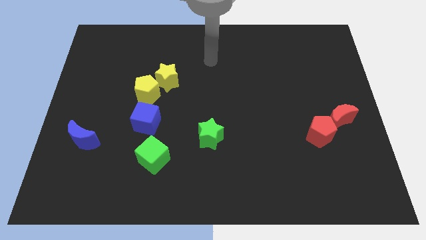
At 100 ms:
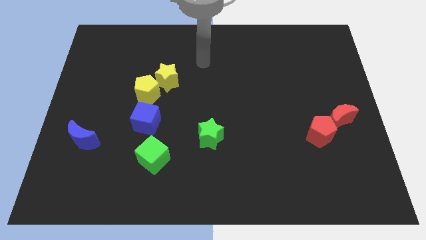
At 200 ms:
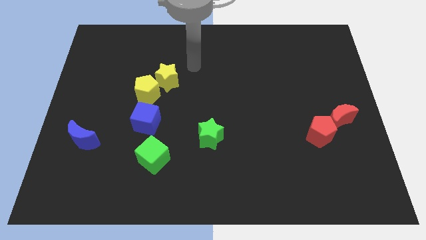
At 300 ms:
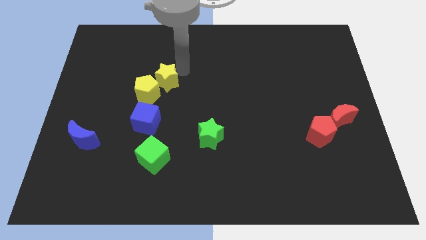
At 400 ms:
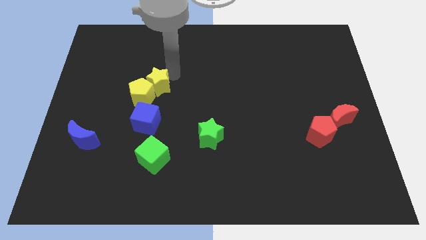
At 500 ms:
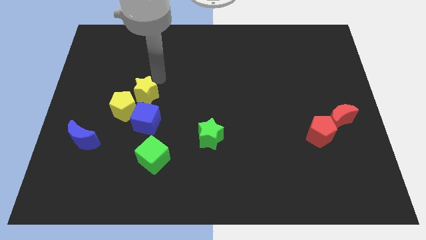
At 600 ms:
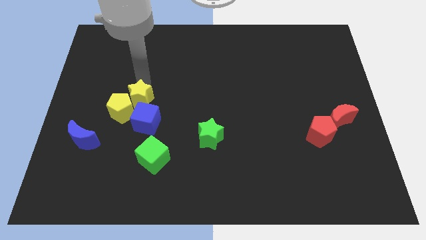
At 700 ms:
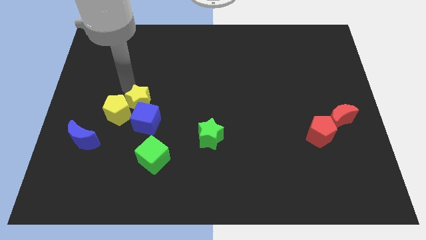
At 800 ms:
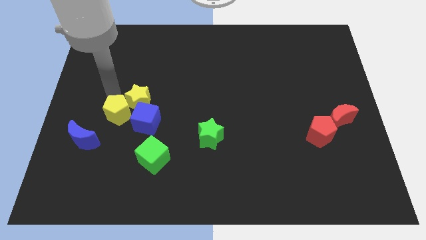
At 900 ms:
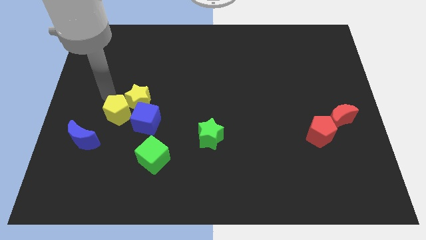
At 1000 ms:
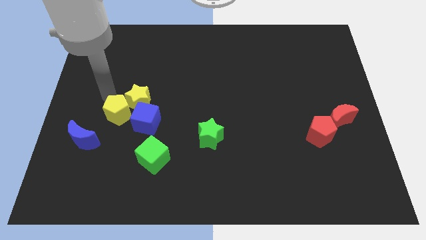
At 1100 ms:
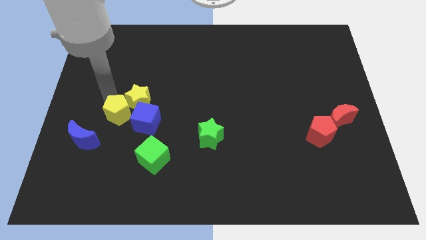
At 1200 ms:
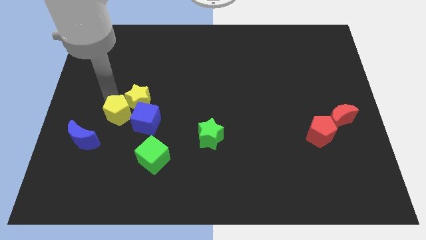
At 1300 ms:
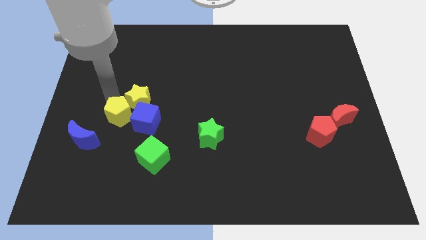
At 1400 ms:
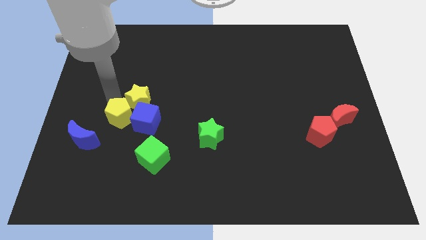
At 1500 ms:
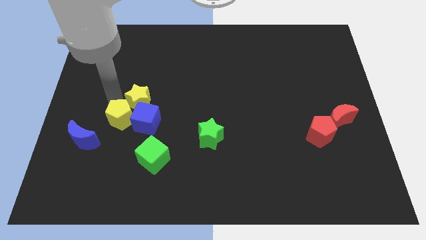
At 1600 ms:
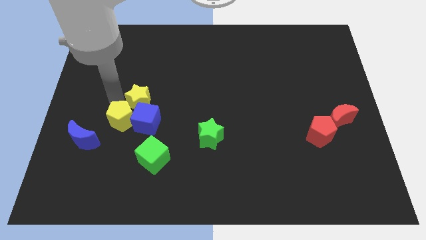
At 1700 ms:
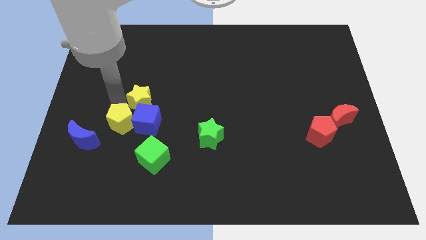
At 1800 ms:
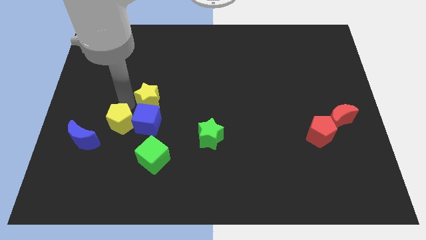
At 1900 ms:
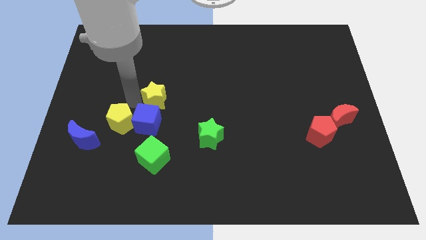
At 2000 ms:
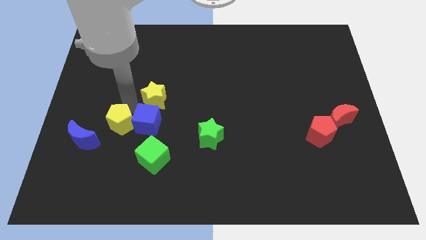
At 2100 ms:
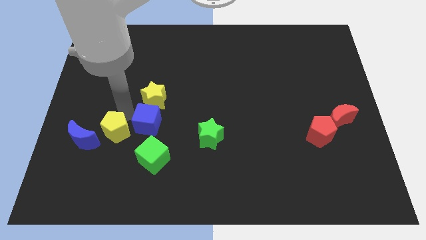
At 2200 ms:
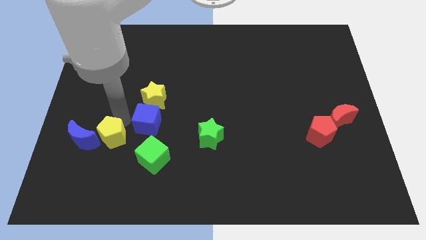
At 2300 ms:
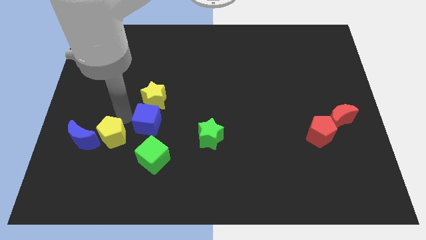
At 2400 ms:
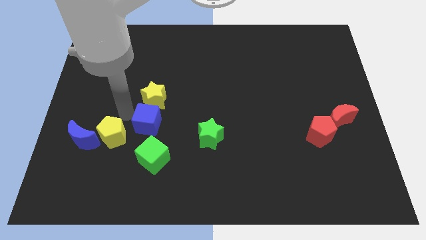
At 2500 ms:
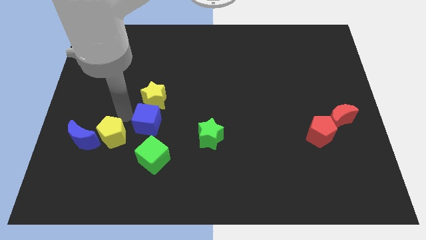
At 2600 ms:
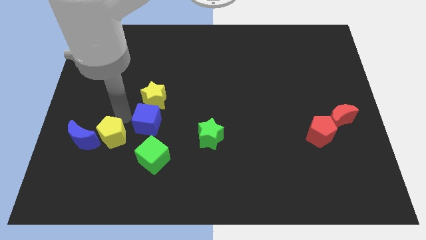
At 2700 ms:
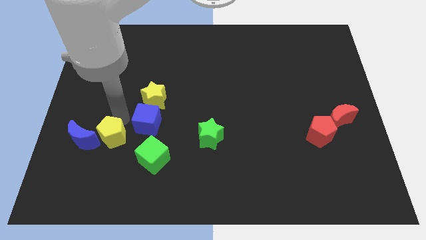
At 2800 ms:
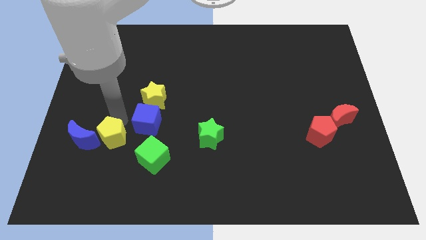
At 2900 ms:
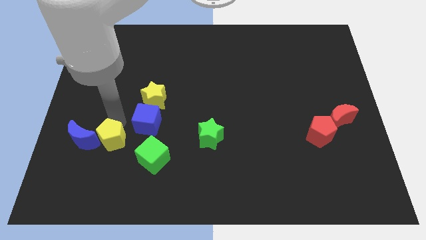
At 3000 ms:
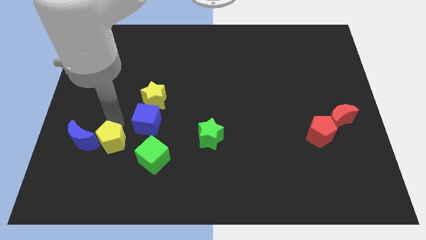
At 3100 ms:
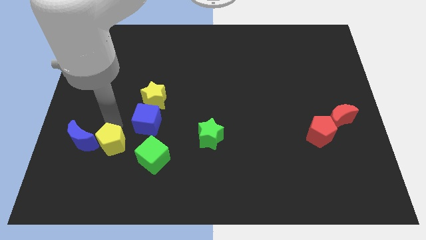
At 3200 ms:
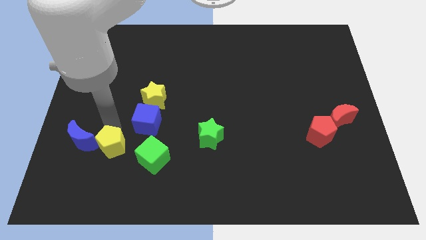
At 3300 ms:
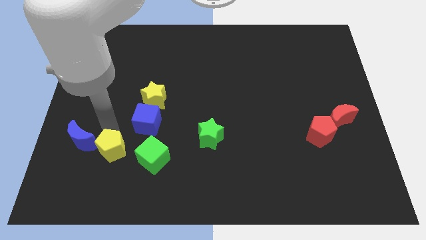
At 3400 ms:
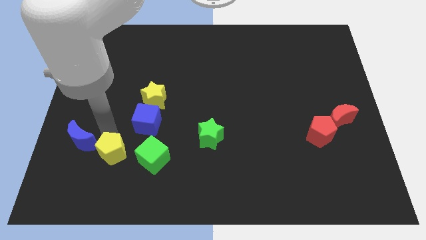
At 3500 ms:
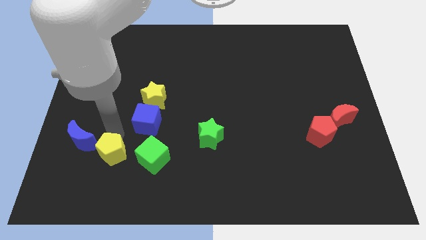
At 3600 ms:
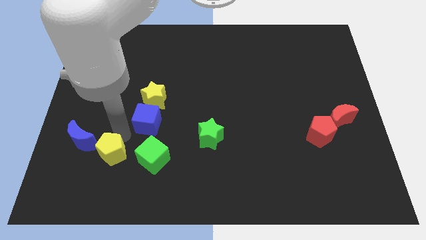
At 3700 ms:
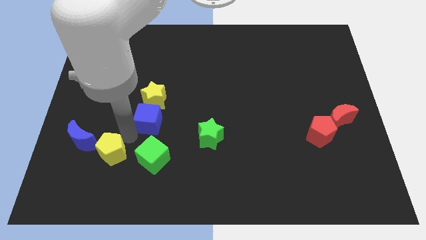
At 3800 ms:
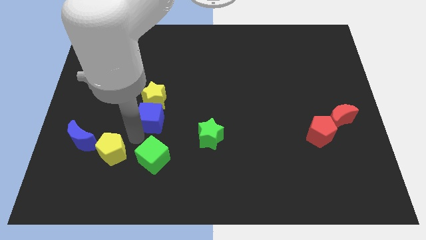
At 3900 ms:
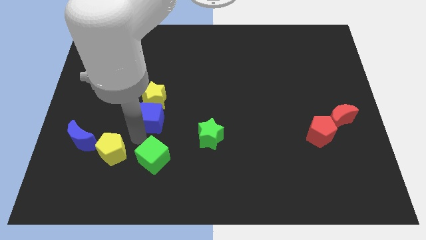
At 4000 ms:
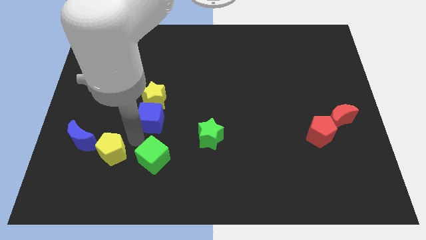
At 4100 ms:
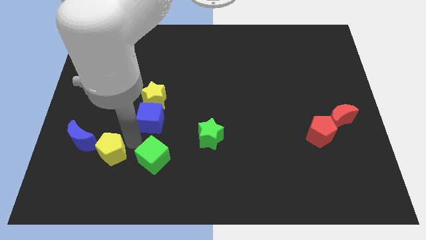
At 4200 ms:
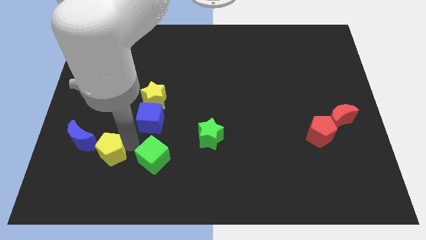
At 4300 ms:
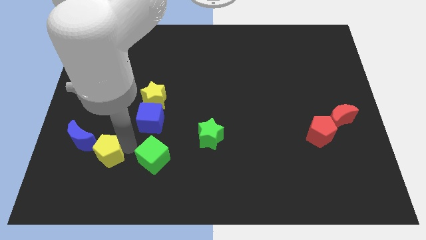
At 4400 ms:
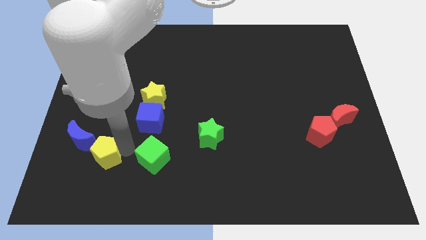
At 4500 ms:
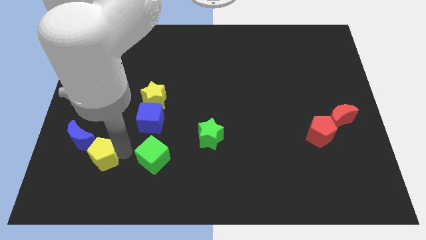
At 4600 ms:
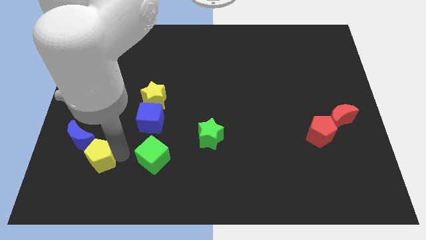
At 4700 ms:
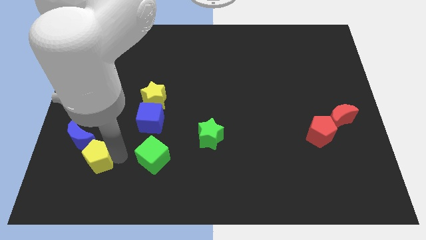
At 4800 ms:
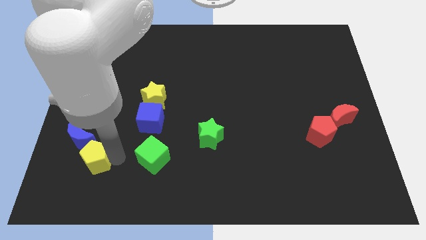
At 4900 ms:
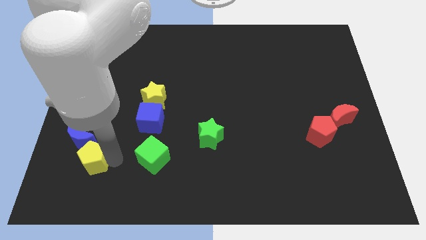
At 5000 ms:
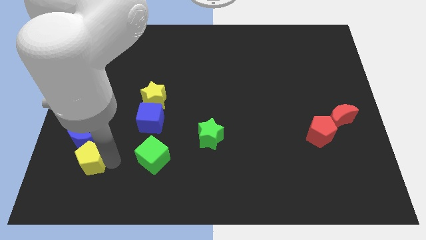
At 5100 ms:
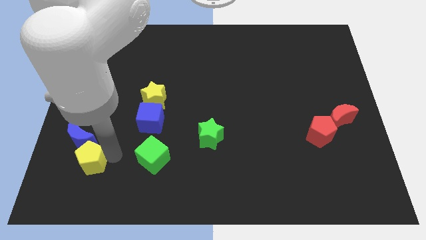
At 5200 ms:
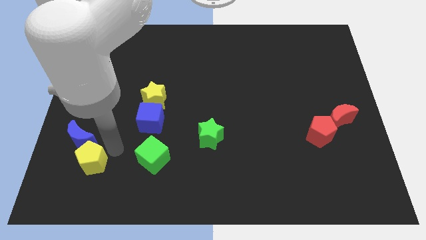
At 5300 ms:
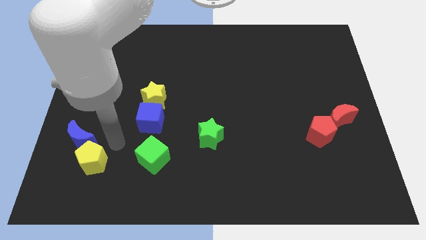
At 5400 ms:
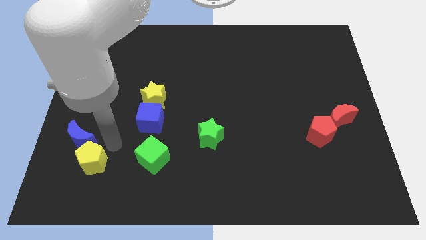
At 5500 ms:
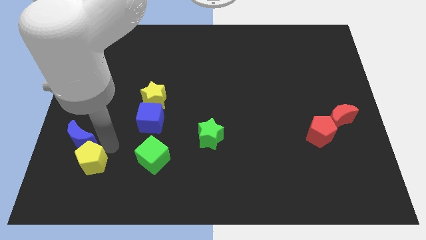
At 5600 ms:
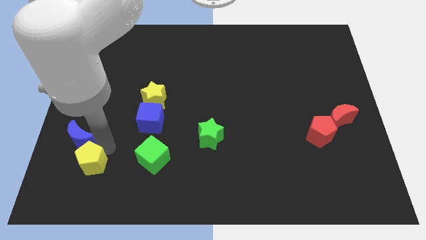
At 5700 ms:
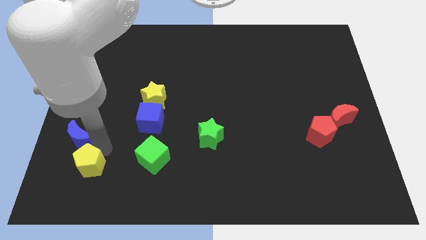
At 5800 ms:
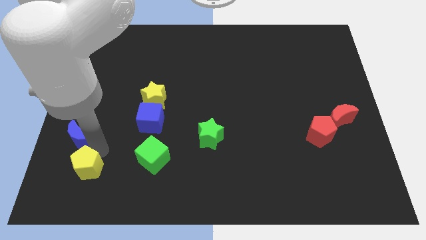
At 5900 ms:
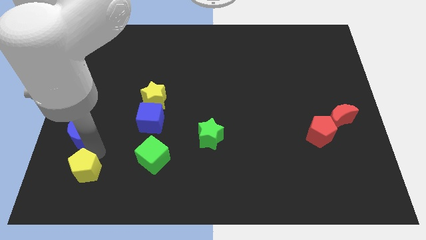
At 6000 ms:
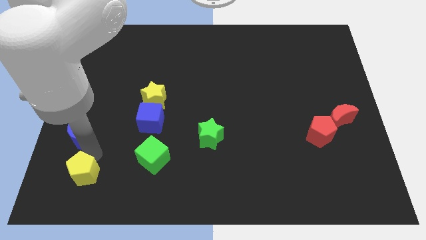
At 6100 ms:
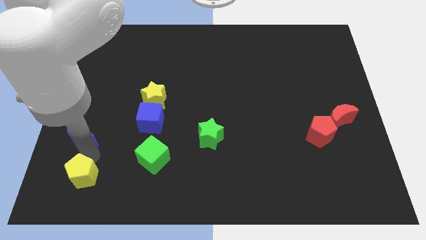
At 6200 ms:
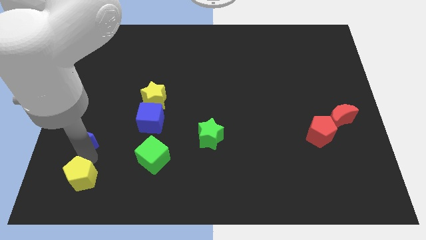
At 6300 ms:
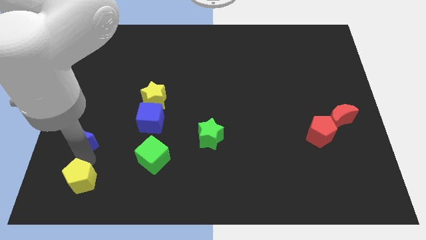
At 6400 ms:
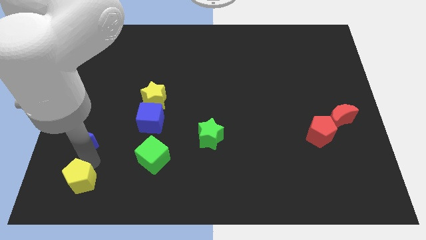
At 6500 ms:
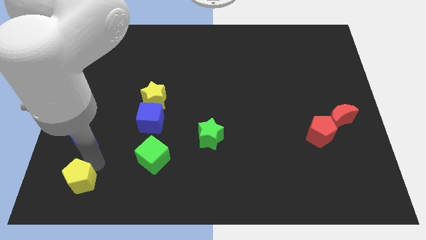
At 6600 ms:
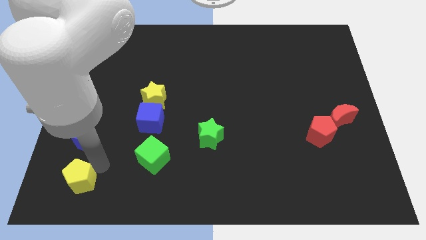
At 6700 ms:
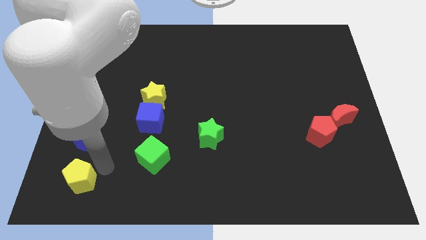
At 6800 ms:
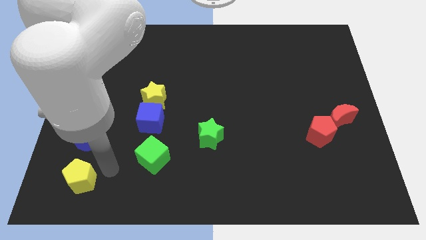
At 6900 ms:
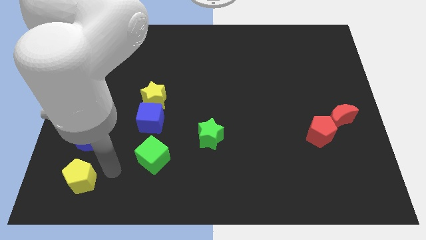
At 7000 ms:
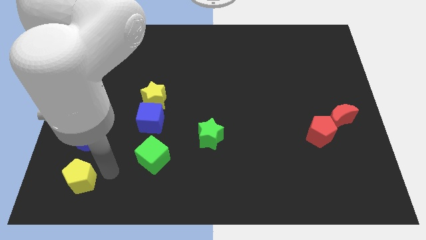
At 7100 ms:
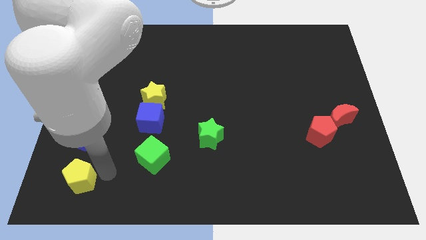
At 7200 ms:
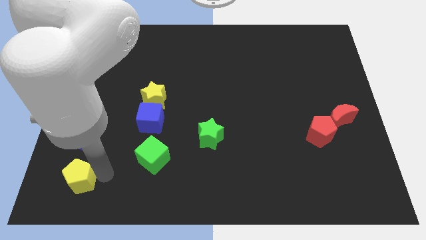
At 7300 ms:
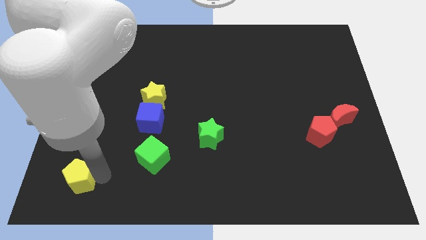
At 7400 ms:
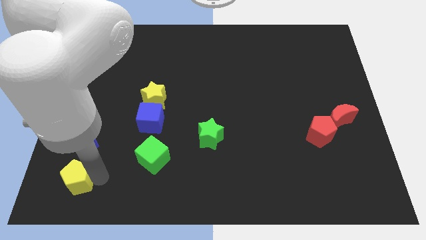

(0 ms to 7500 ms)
put the yellow pentagon to the bottom left of the board
